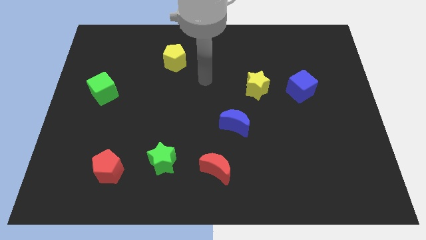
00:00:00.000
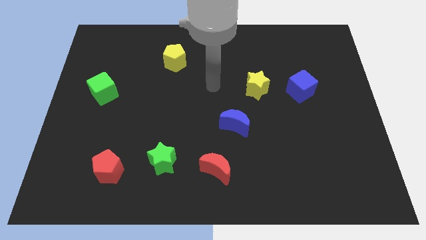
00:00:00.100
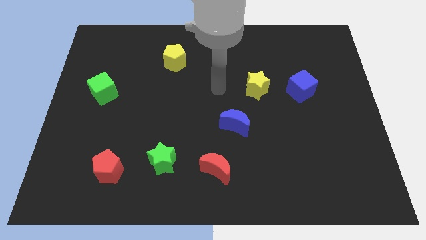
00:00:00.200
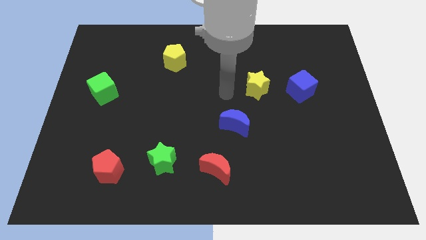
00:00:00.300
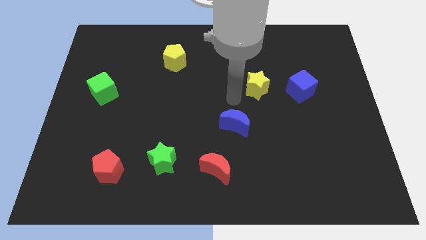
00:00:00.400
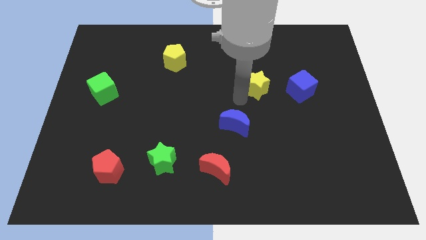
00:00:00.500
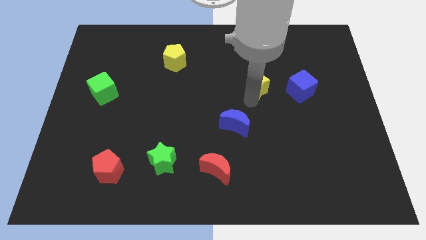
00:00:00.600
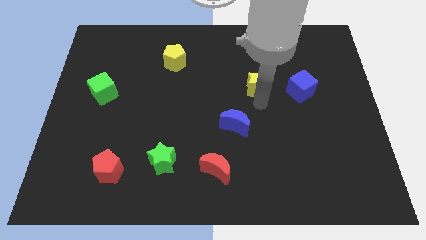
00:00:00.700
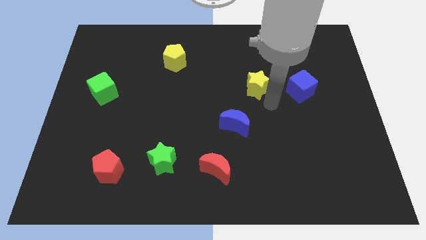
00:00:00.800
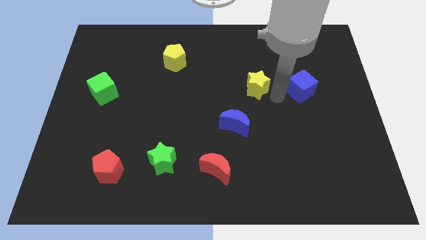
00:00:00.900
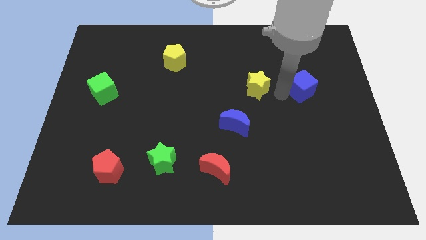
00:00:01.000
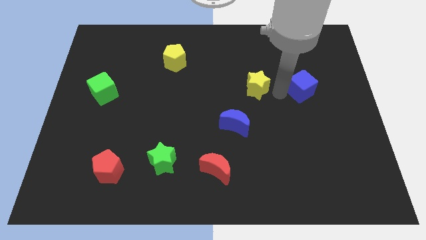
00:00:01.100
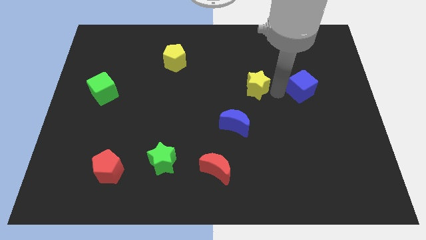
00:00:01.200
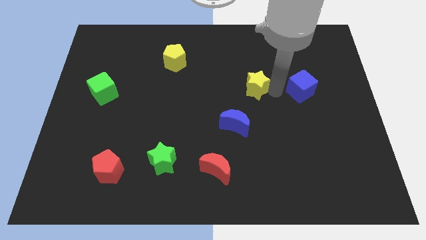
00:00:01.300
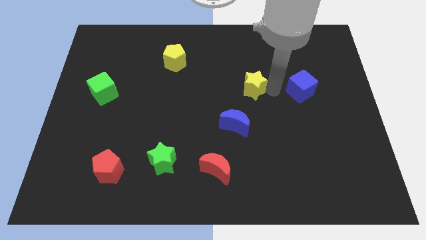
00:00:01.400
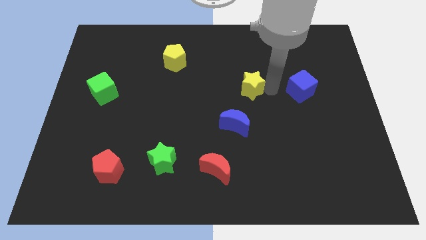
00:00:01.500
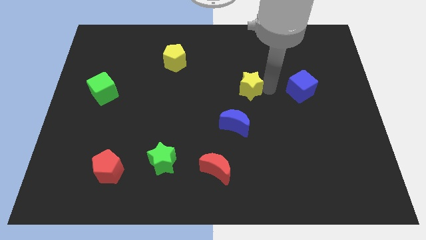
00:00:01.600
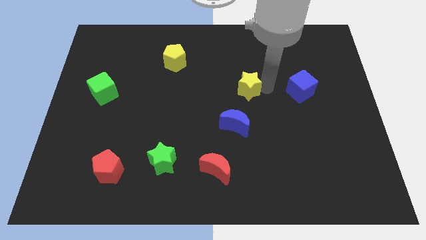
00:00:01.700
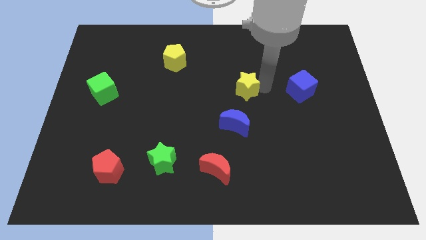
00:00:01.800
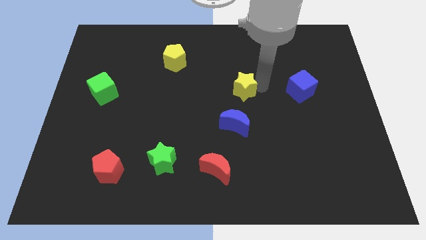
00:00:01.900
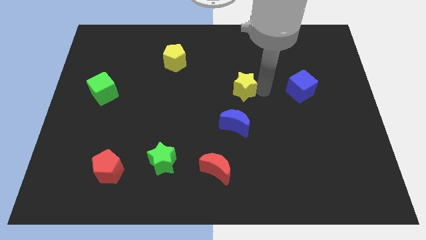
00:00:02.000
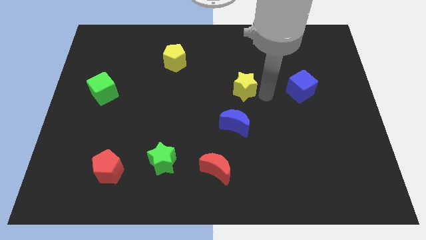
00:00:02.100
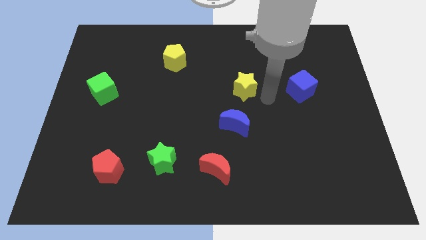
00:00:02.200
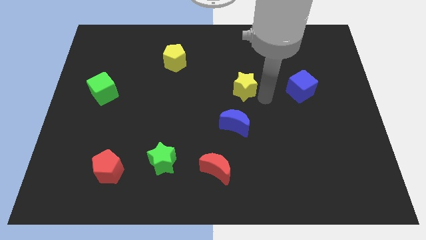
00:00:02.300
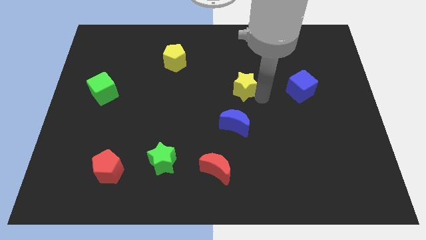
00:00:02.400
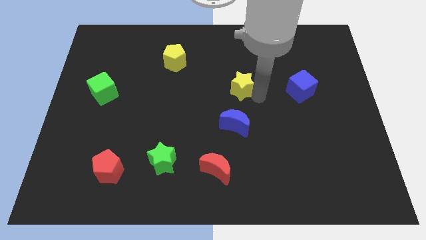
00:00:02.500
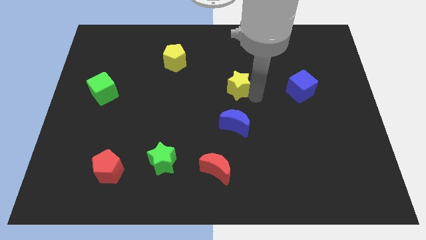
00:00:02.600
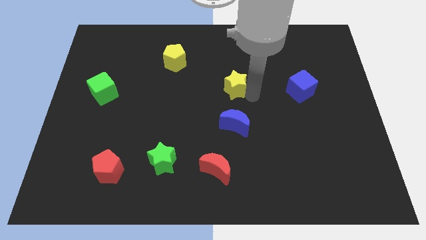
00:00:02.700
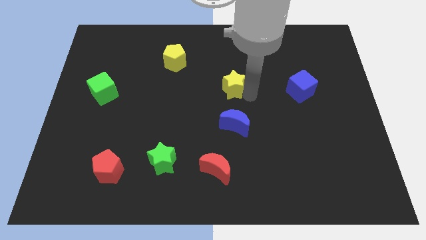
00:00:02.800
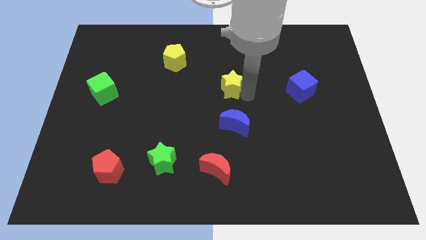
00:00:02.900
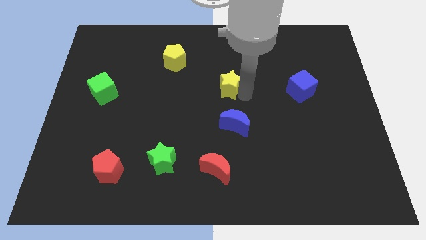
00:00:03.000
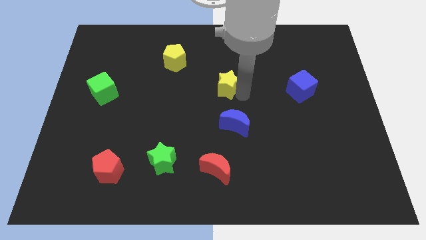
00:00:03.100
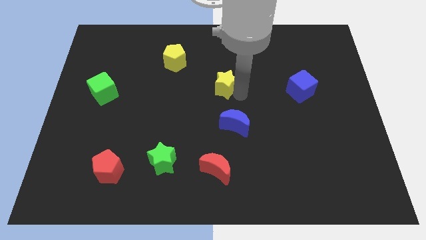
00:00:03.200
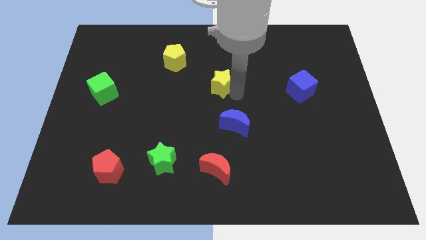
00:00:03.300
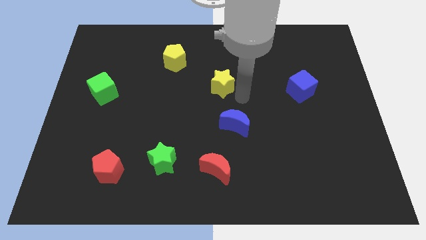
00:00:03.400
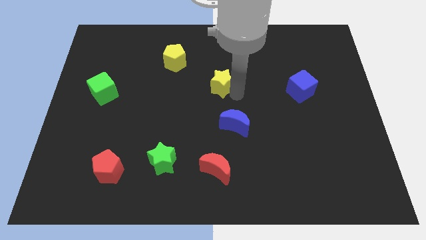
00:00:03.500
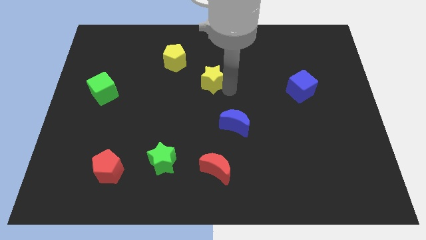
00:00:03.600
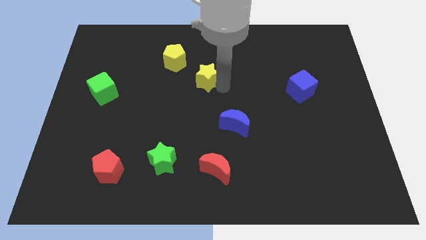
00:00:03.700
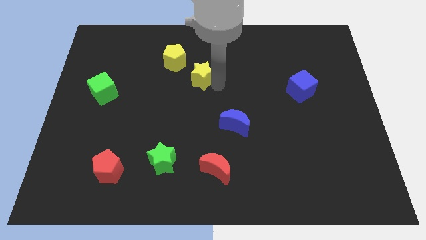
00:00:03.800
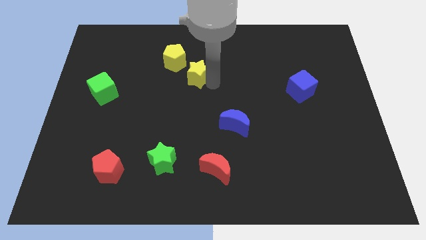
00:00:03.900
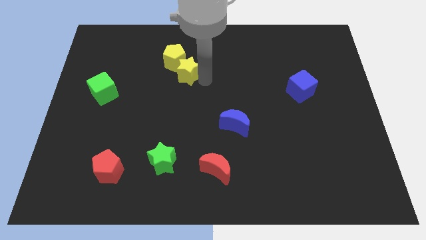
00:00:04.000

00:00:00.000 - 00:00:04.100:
put the yellow star close to the yellow pentagon

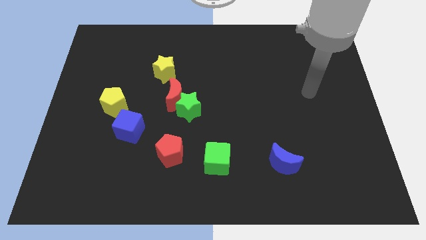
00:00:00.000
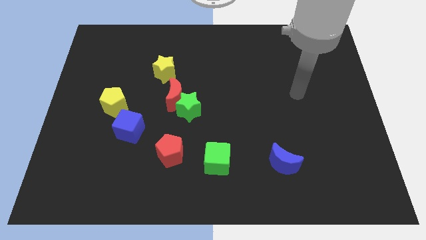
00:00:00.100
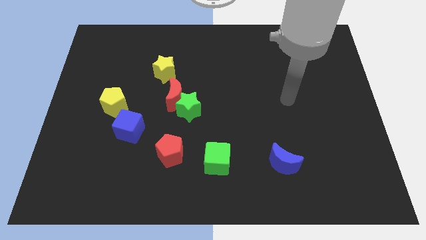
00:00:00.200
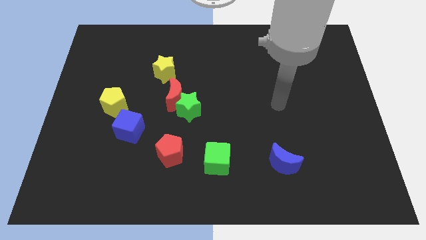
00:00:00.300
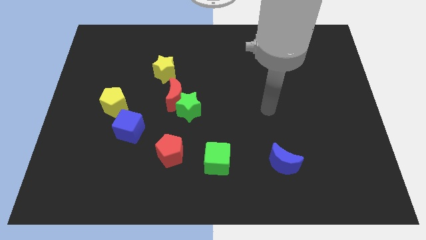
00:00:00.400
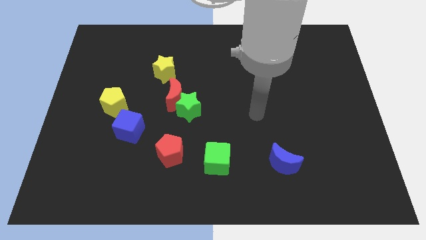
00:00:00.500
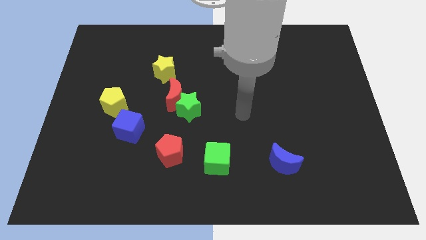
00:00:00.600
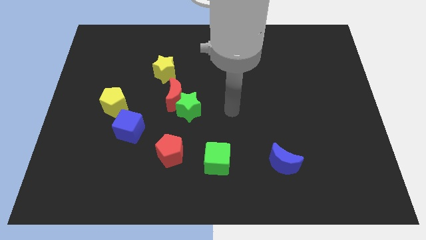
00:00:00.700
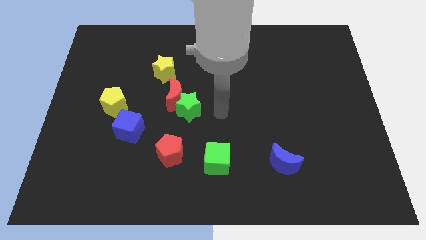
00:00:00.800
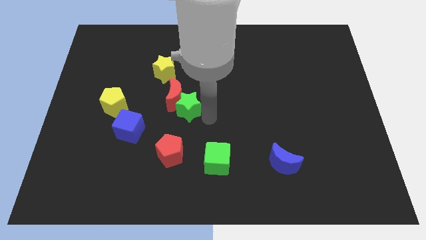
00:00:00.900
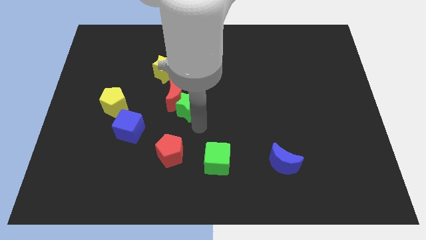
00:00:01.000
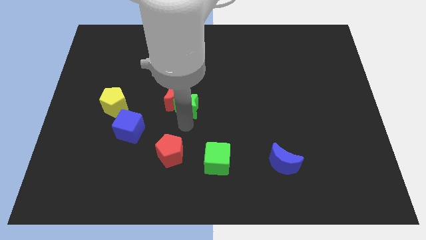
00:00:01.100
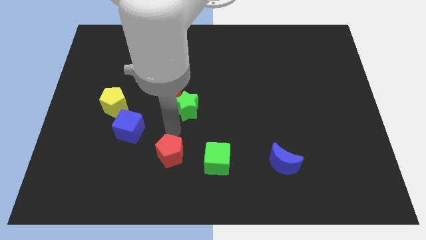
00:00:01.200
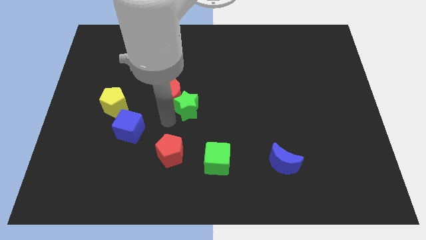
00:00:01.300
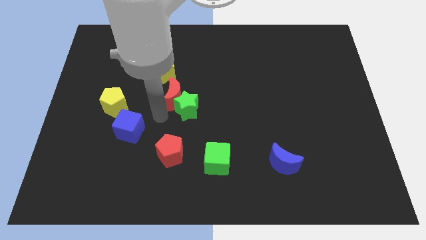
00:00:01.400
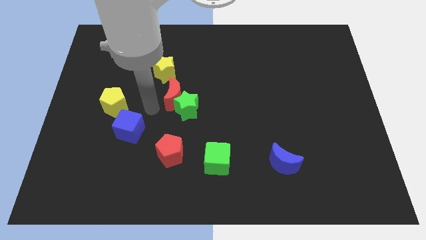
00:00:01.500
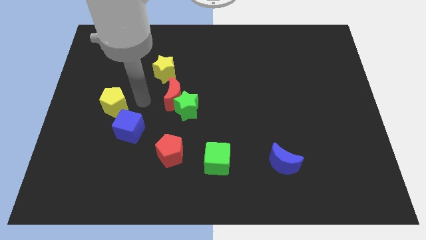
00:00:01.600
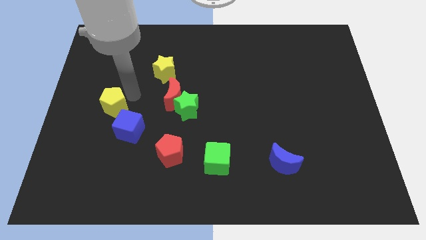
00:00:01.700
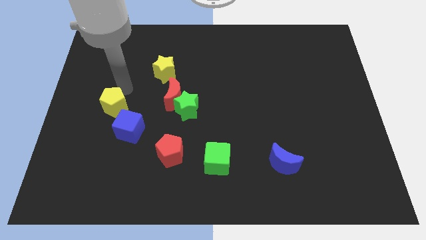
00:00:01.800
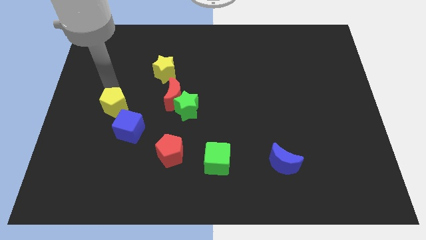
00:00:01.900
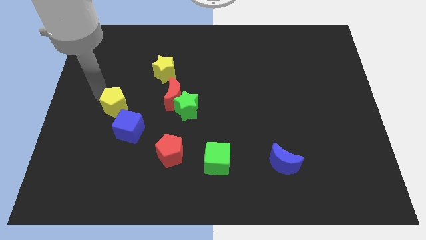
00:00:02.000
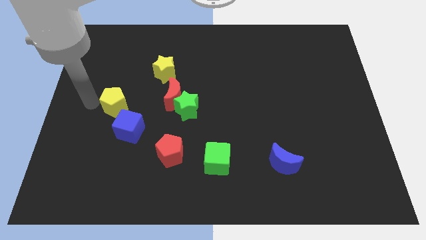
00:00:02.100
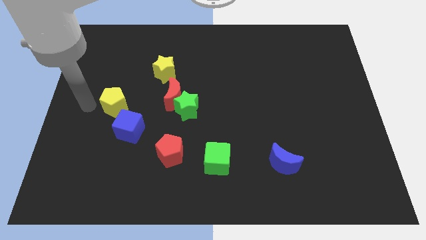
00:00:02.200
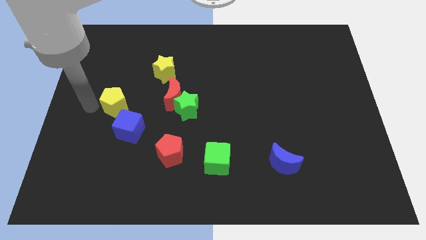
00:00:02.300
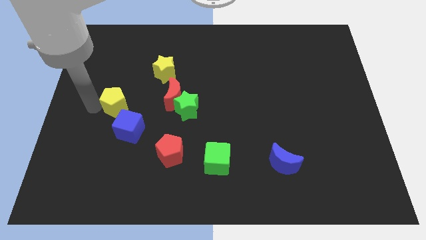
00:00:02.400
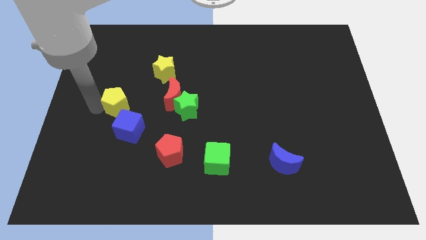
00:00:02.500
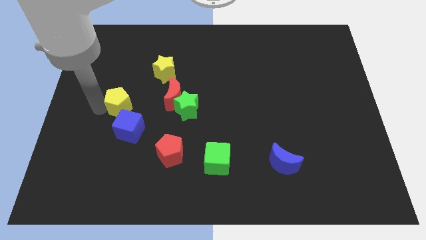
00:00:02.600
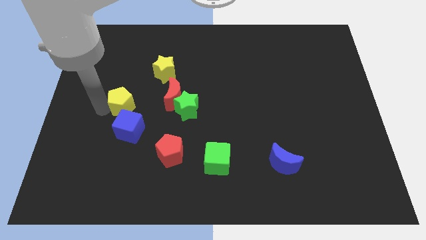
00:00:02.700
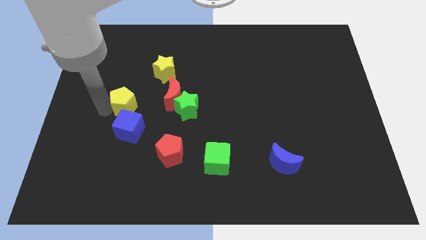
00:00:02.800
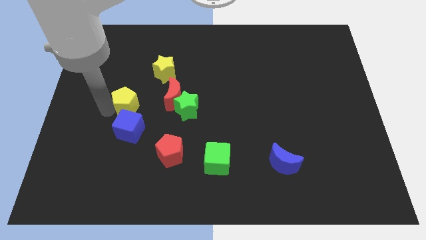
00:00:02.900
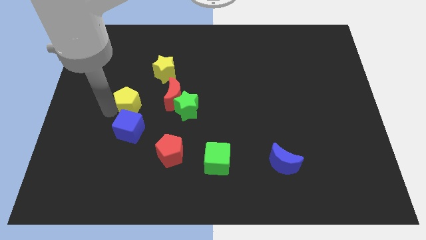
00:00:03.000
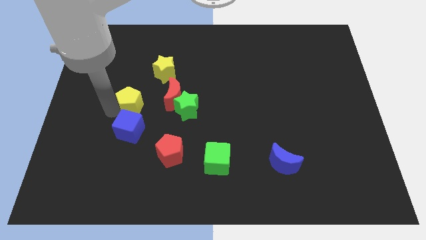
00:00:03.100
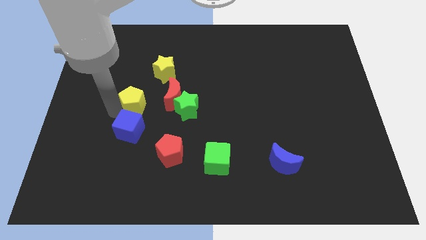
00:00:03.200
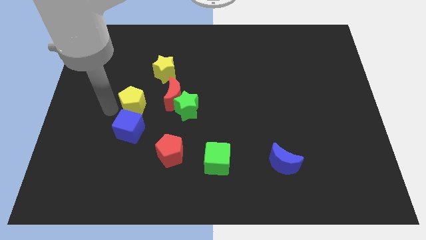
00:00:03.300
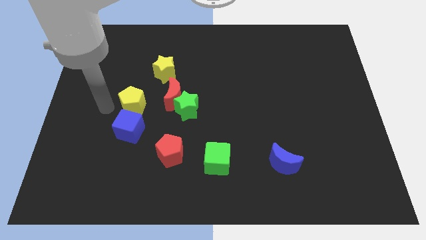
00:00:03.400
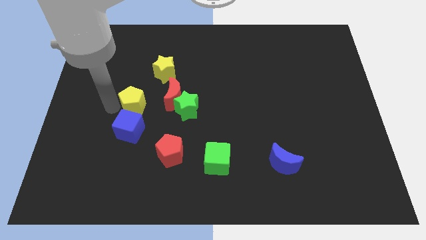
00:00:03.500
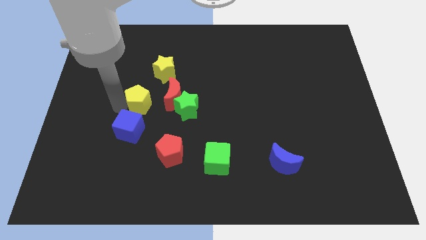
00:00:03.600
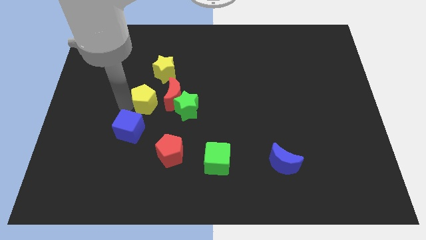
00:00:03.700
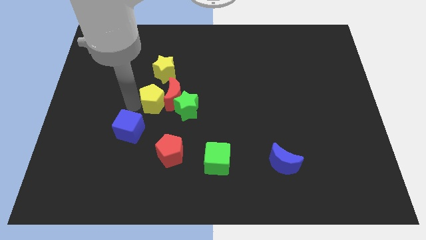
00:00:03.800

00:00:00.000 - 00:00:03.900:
slide the yellow pentagon next to the red moon

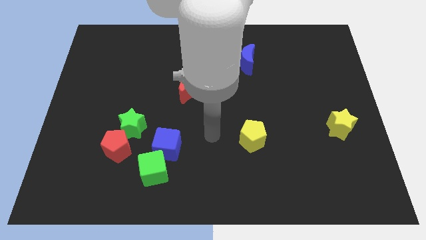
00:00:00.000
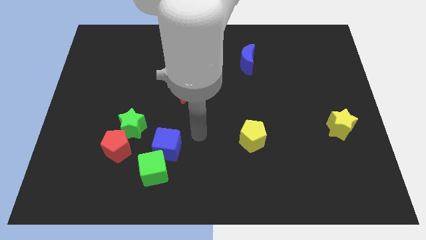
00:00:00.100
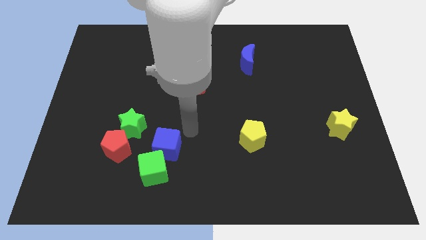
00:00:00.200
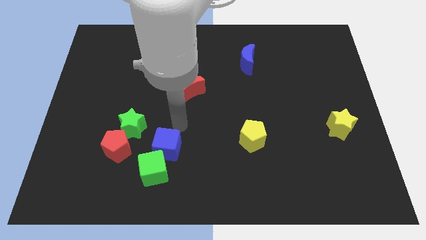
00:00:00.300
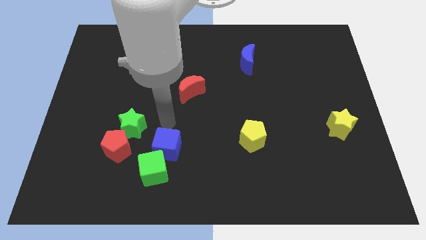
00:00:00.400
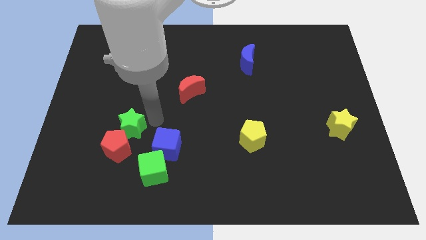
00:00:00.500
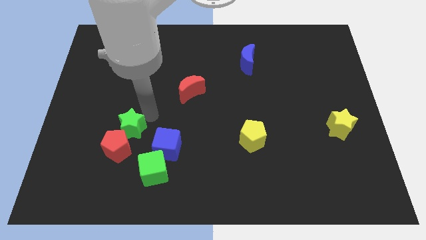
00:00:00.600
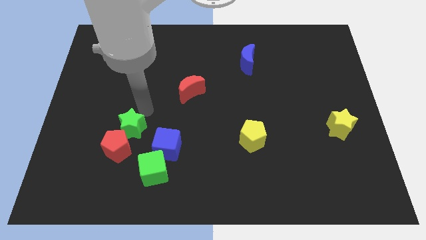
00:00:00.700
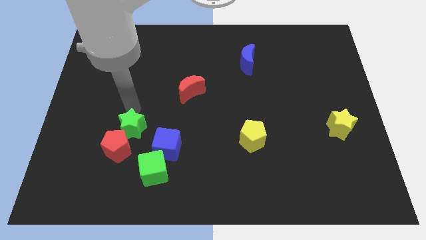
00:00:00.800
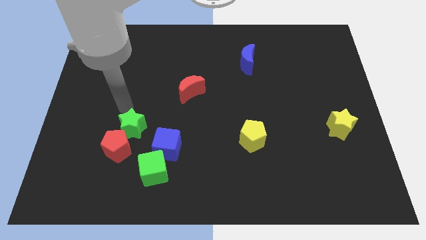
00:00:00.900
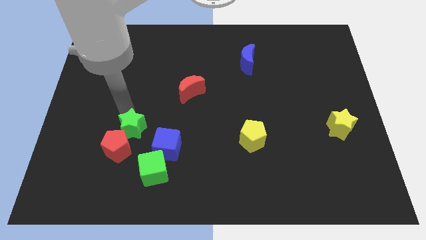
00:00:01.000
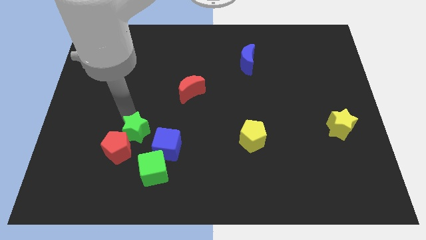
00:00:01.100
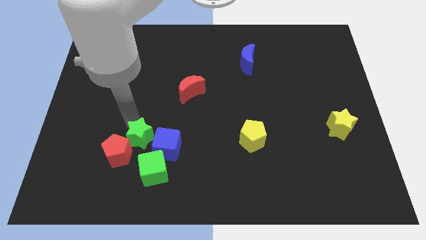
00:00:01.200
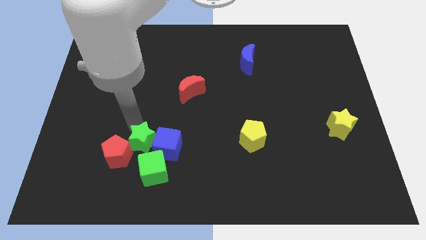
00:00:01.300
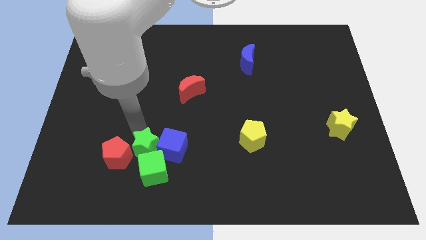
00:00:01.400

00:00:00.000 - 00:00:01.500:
move the green star close to the green cube
